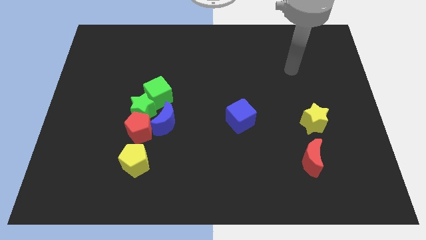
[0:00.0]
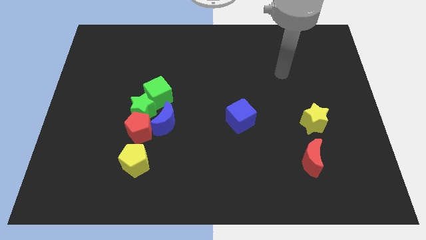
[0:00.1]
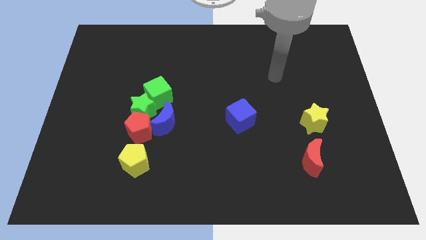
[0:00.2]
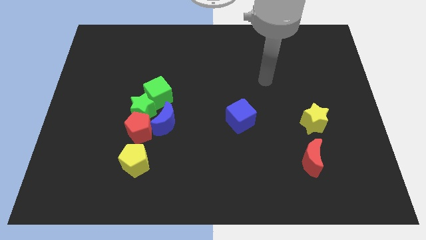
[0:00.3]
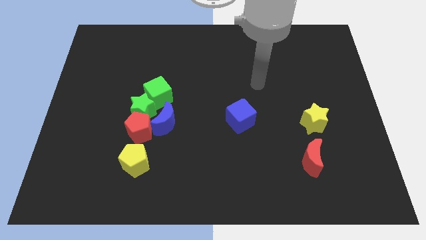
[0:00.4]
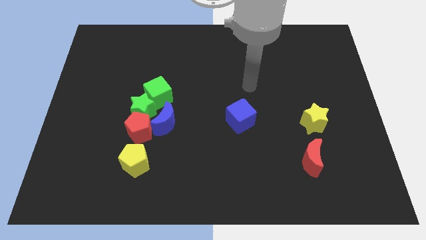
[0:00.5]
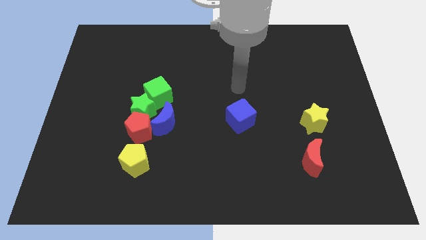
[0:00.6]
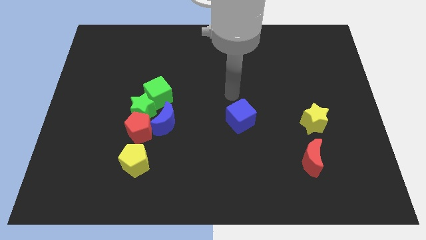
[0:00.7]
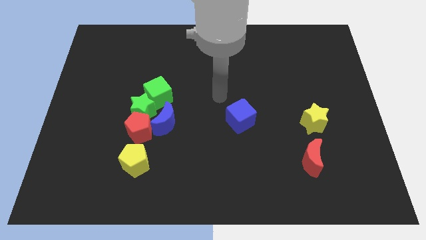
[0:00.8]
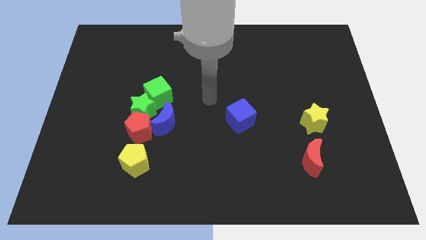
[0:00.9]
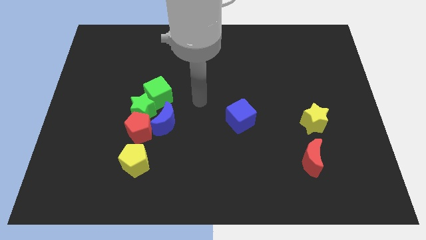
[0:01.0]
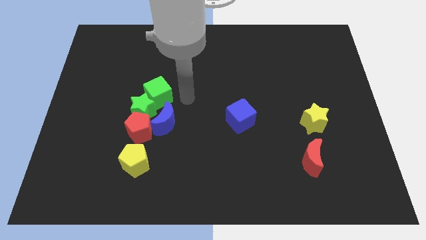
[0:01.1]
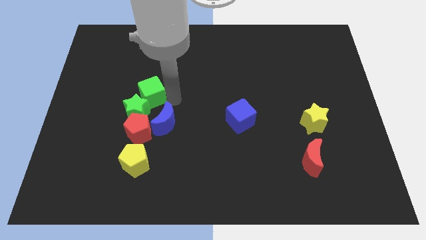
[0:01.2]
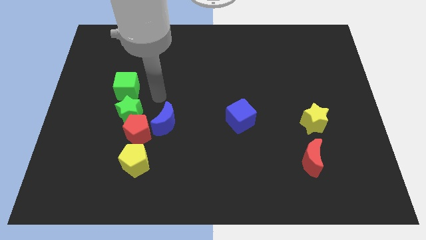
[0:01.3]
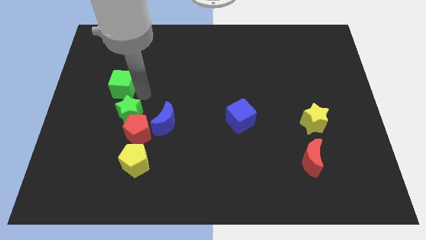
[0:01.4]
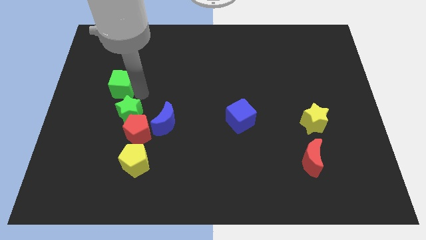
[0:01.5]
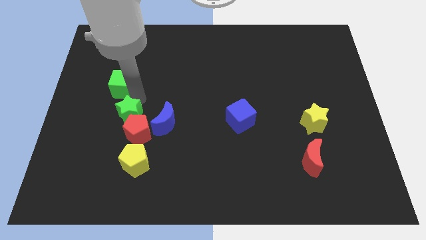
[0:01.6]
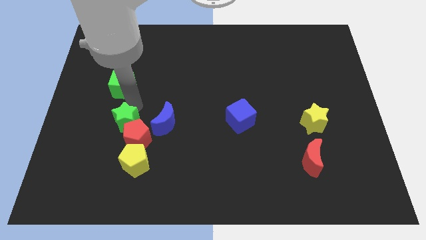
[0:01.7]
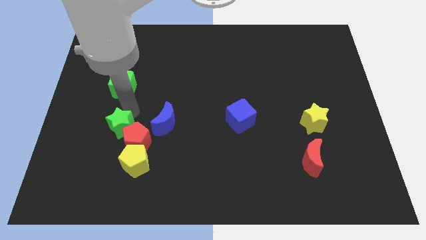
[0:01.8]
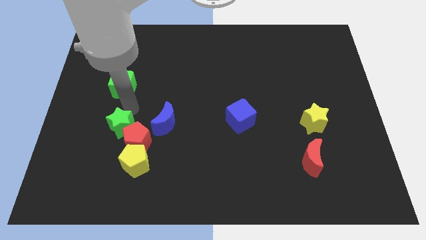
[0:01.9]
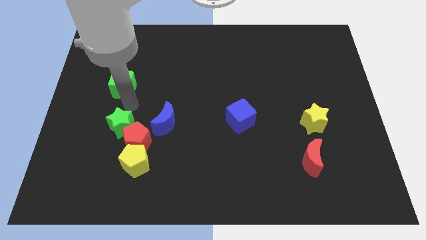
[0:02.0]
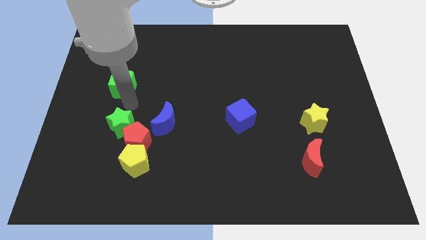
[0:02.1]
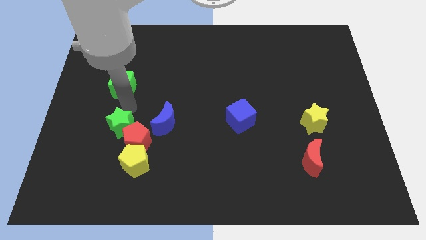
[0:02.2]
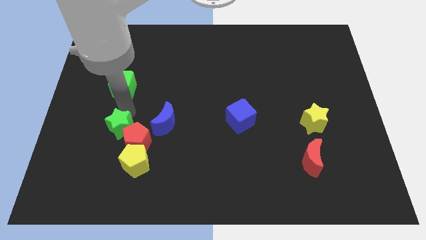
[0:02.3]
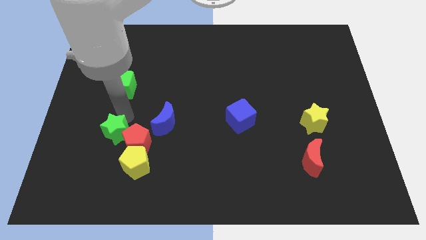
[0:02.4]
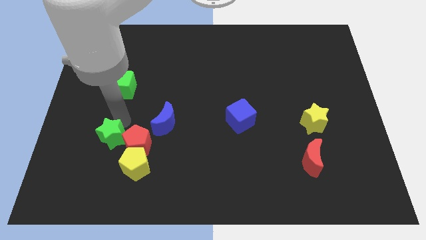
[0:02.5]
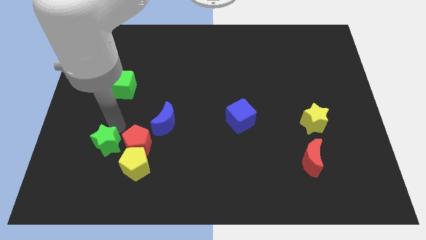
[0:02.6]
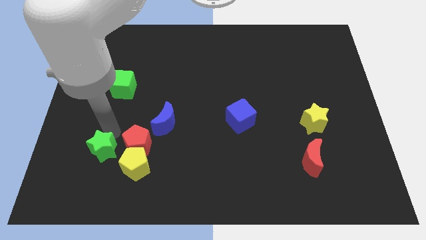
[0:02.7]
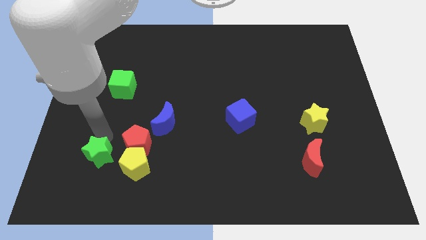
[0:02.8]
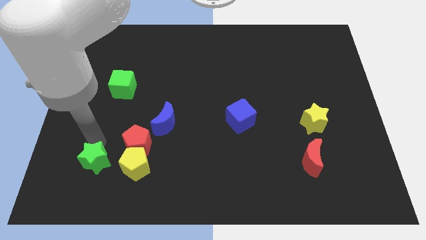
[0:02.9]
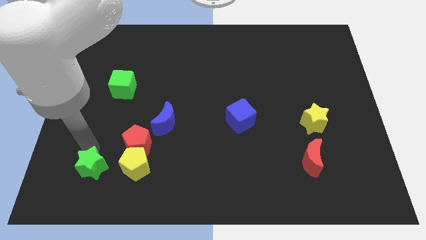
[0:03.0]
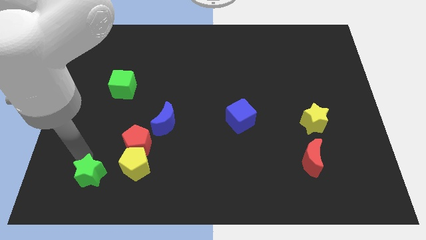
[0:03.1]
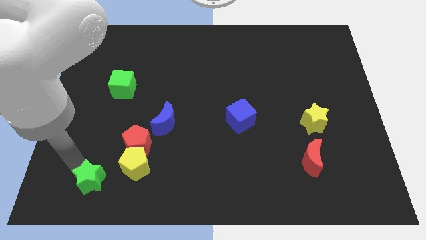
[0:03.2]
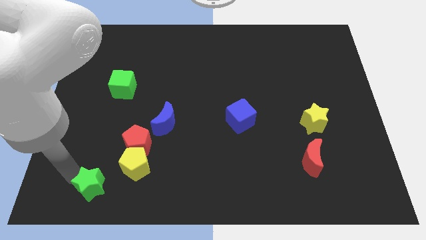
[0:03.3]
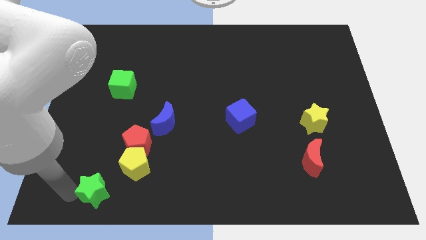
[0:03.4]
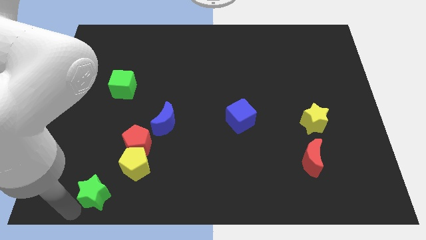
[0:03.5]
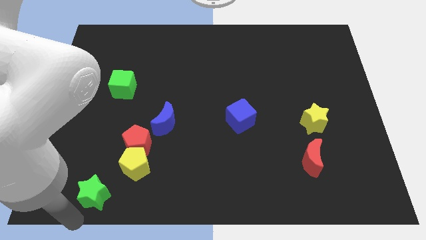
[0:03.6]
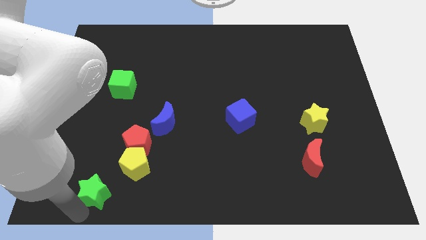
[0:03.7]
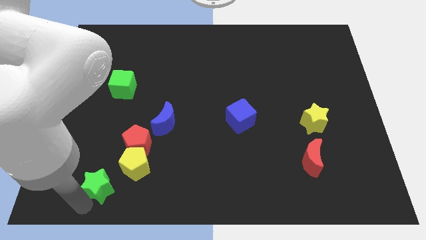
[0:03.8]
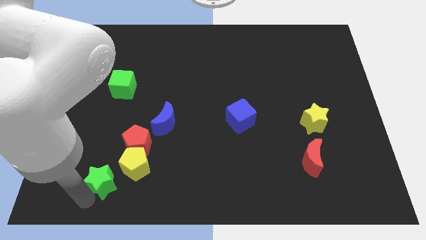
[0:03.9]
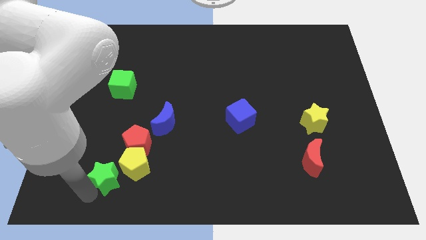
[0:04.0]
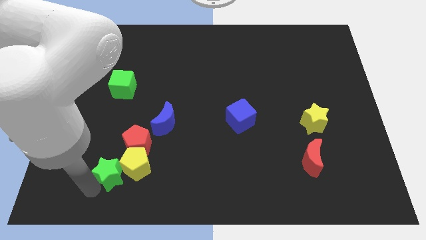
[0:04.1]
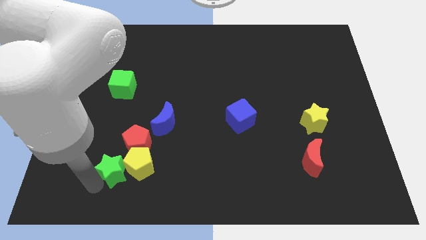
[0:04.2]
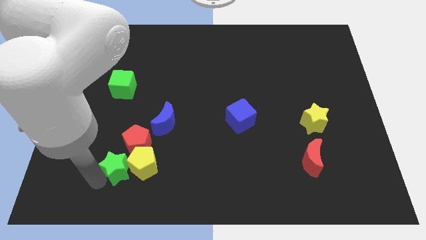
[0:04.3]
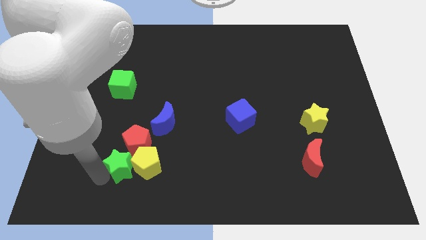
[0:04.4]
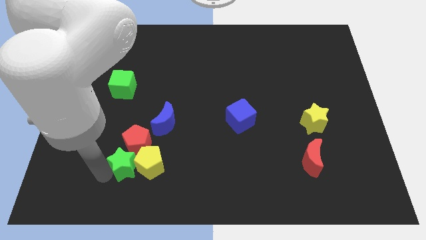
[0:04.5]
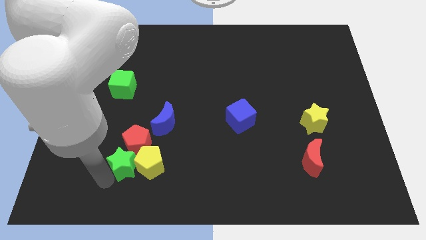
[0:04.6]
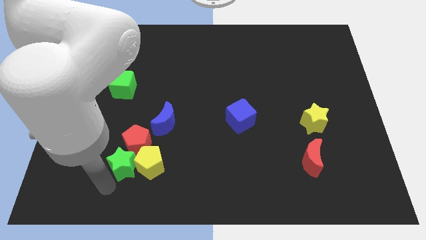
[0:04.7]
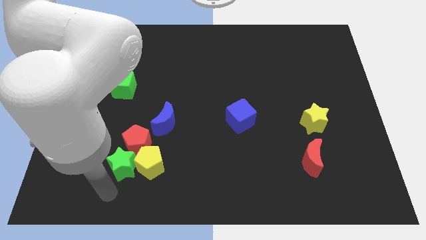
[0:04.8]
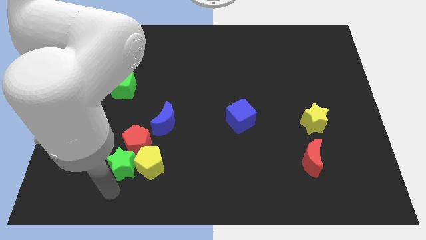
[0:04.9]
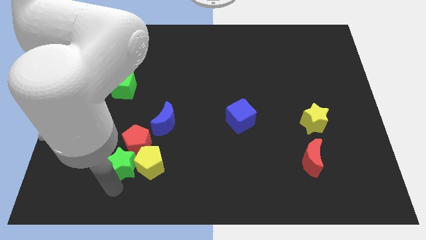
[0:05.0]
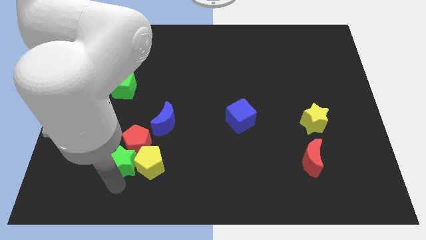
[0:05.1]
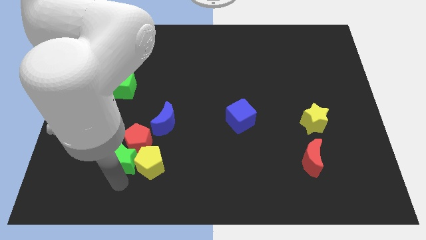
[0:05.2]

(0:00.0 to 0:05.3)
put the green star to the bottom left of the blue moon

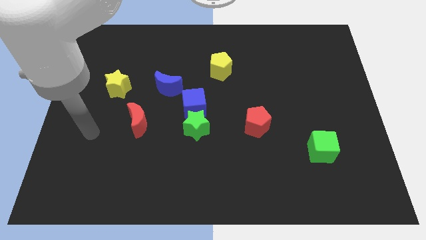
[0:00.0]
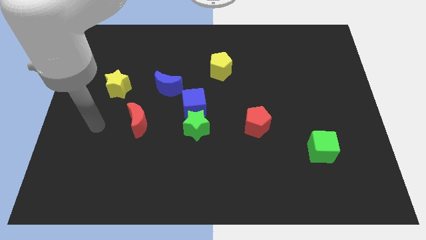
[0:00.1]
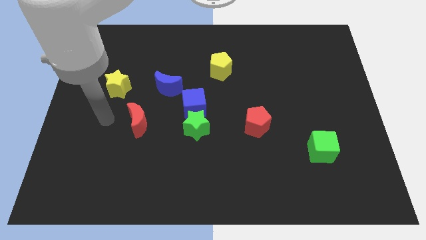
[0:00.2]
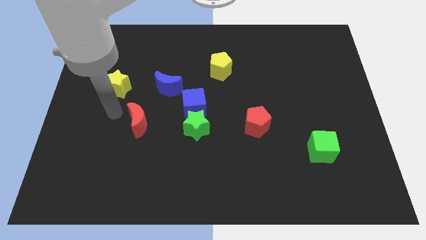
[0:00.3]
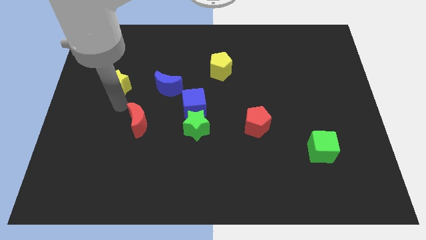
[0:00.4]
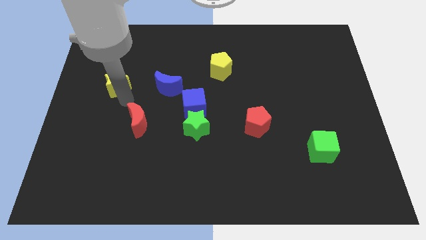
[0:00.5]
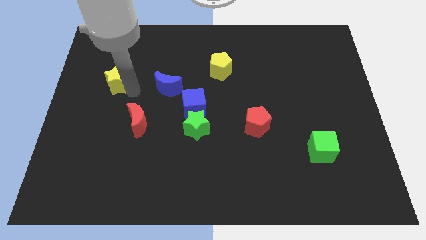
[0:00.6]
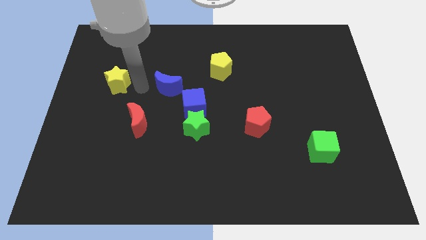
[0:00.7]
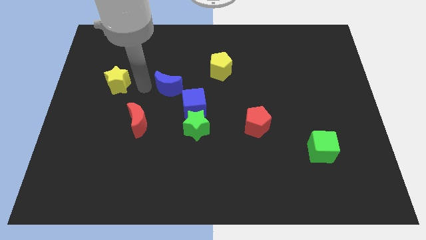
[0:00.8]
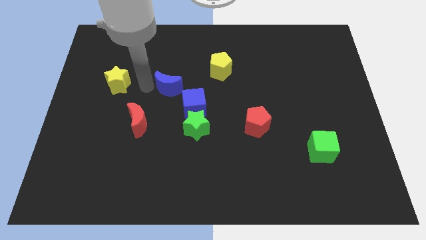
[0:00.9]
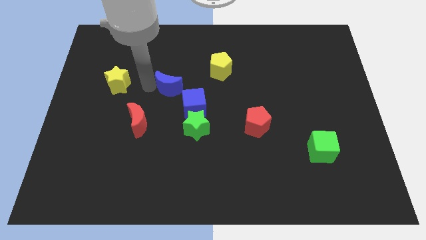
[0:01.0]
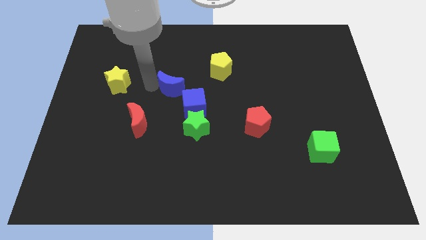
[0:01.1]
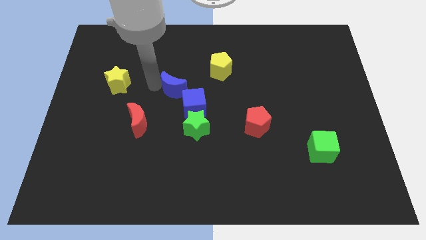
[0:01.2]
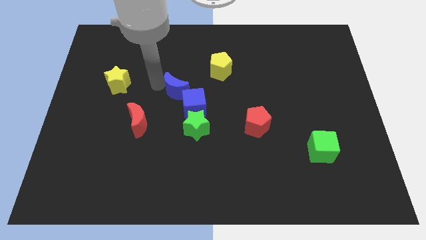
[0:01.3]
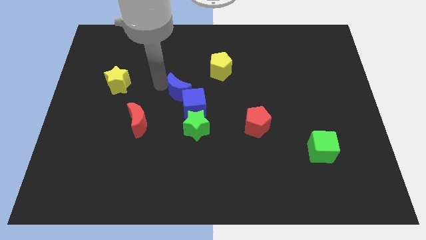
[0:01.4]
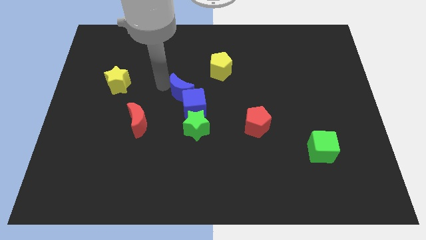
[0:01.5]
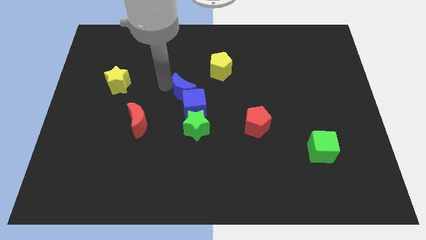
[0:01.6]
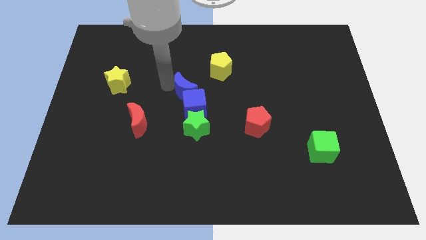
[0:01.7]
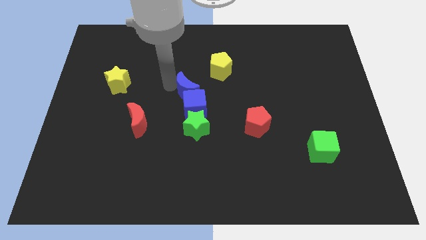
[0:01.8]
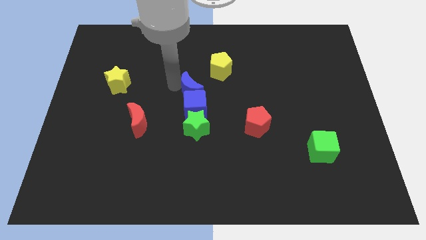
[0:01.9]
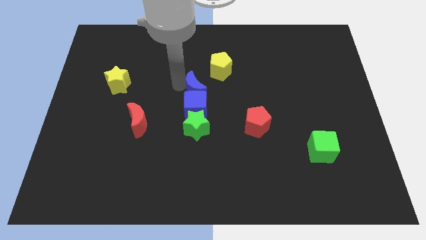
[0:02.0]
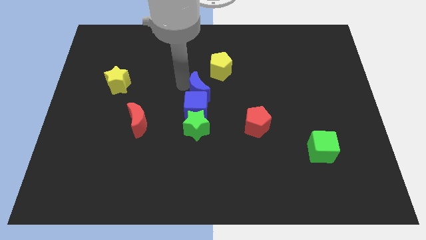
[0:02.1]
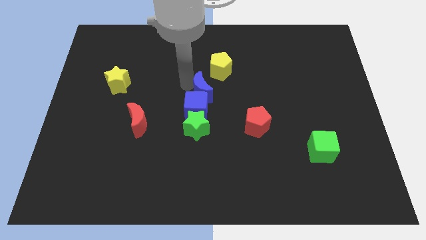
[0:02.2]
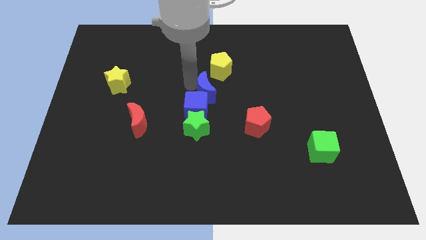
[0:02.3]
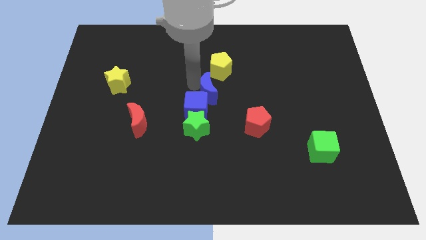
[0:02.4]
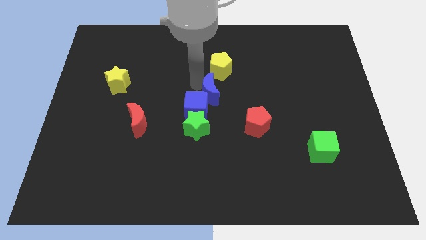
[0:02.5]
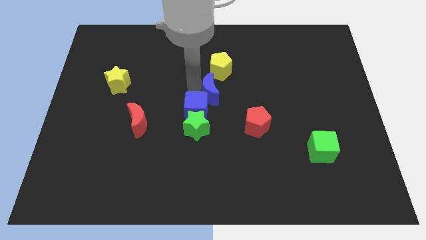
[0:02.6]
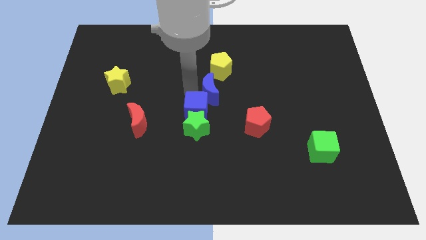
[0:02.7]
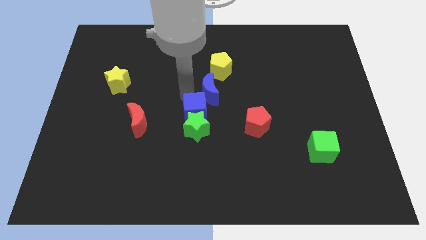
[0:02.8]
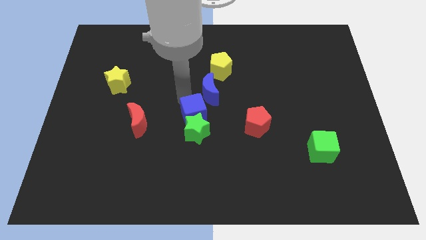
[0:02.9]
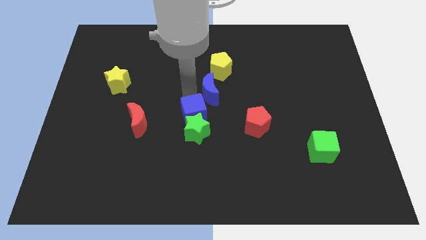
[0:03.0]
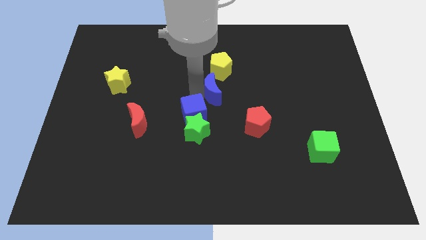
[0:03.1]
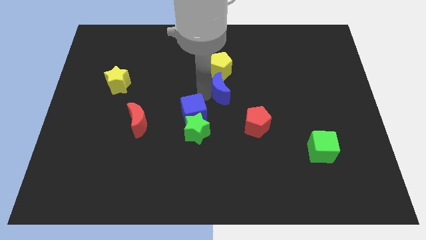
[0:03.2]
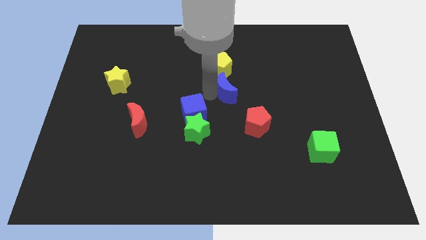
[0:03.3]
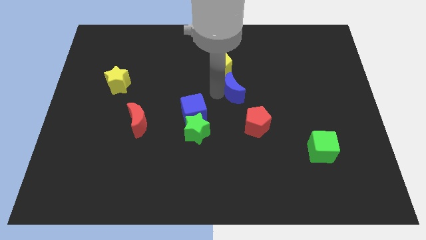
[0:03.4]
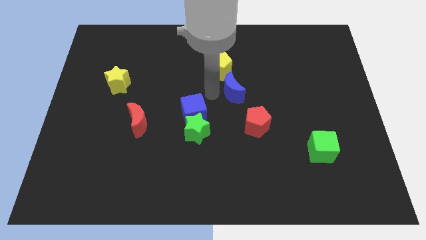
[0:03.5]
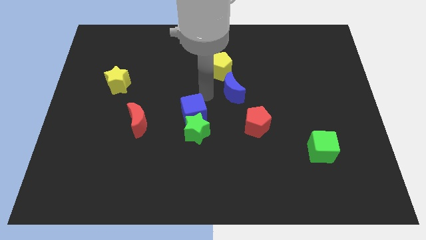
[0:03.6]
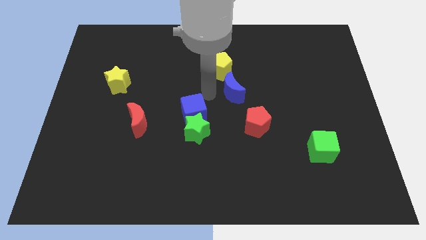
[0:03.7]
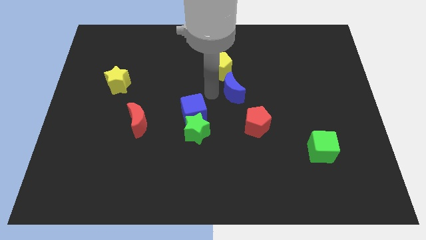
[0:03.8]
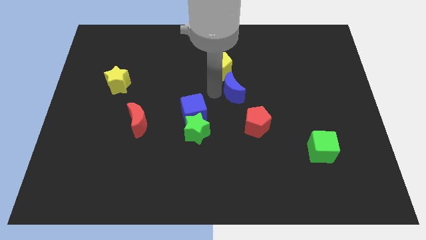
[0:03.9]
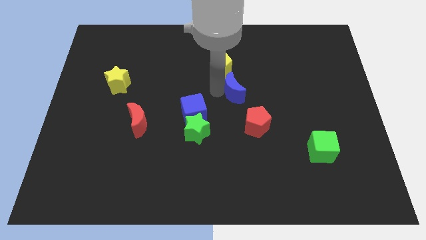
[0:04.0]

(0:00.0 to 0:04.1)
move the blue moon to the top of the red pentagon
